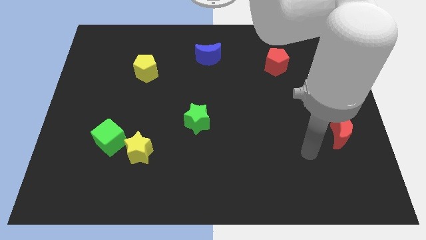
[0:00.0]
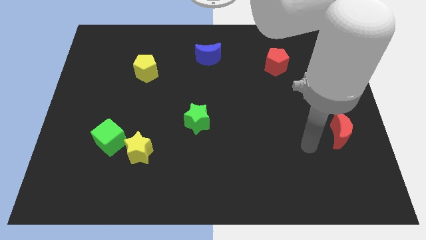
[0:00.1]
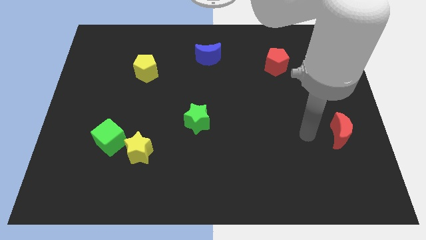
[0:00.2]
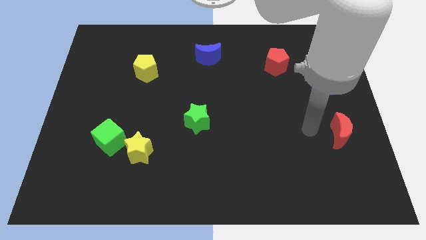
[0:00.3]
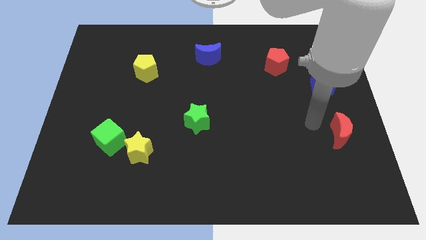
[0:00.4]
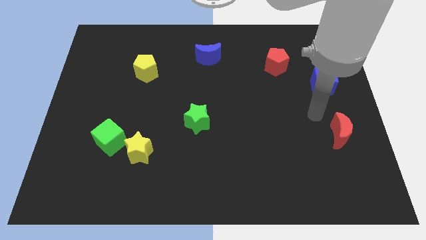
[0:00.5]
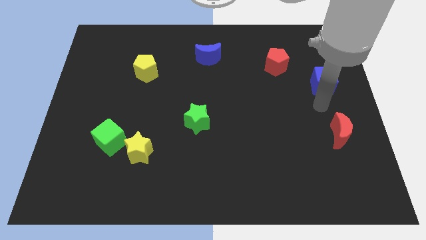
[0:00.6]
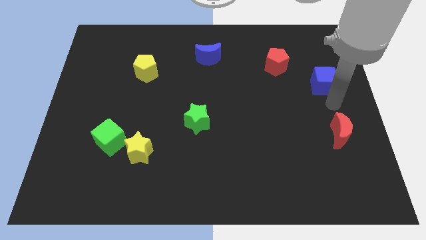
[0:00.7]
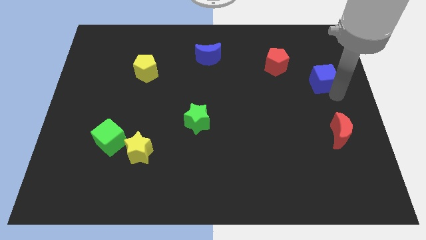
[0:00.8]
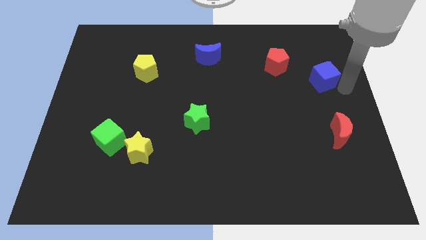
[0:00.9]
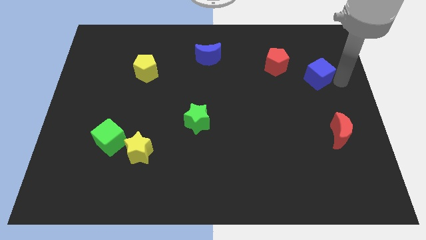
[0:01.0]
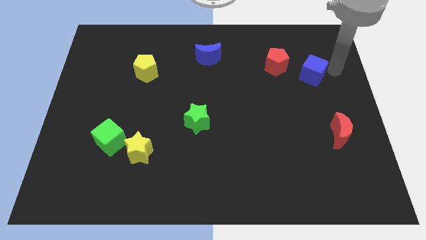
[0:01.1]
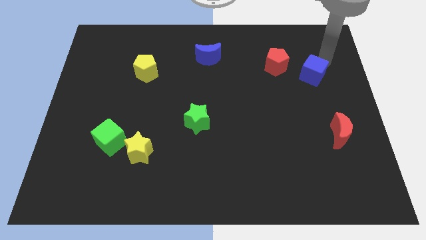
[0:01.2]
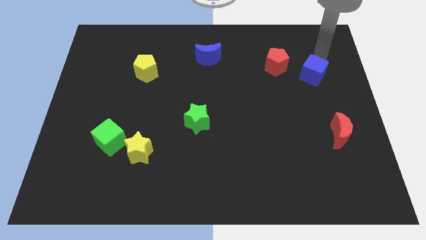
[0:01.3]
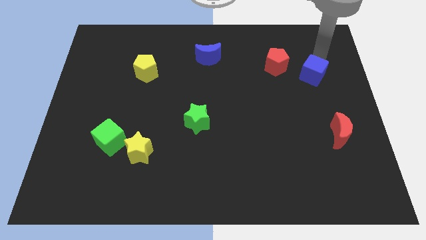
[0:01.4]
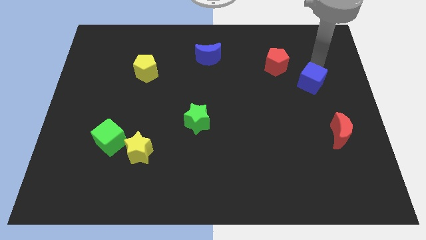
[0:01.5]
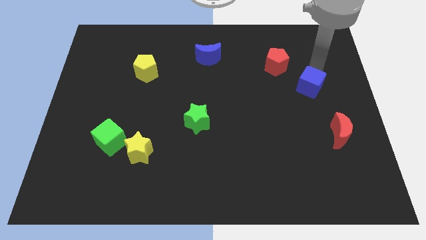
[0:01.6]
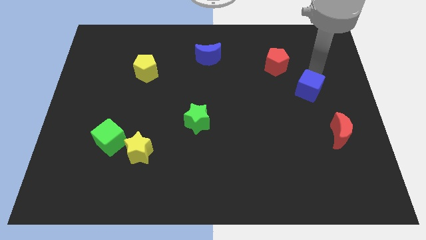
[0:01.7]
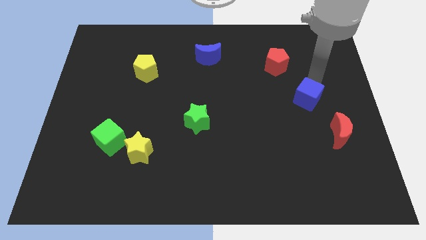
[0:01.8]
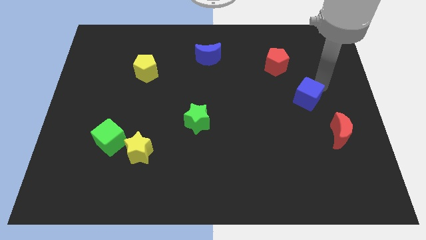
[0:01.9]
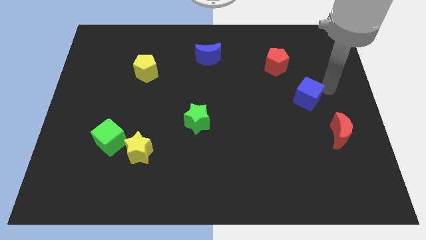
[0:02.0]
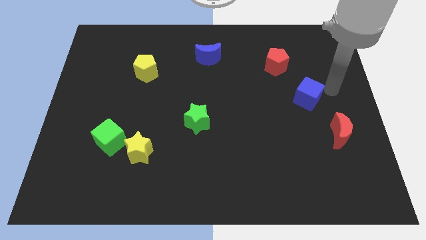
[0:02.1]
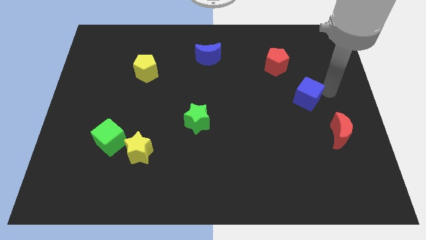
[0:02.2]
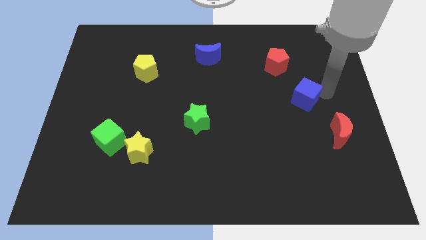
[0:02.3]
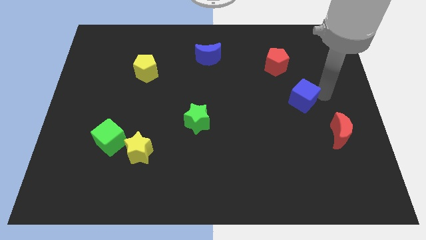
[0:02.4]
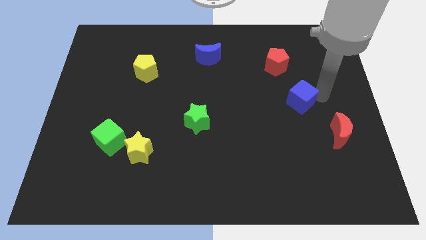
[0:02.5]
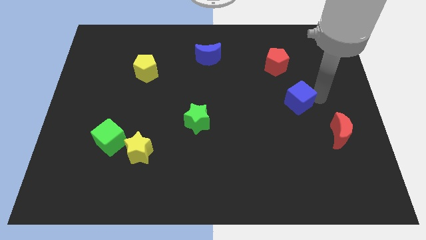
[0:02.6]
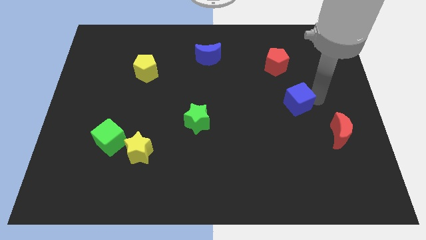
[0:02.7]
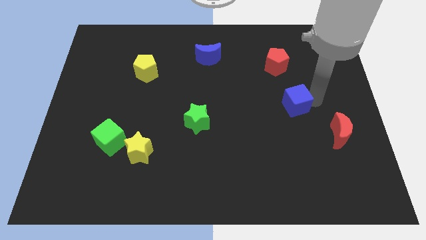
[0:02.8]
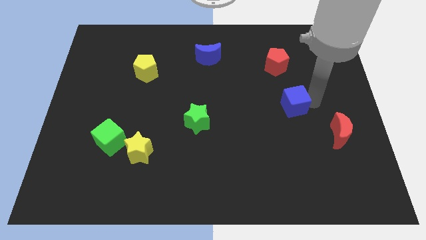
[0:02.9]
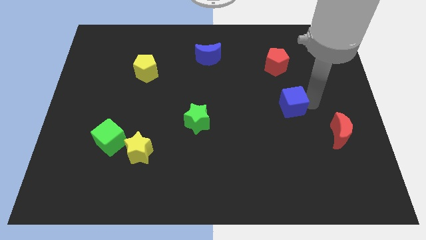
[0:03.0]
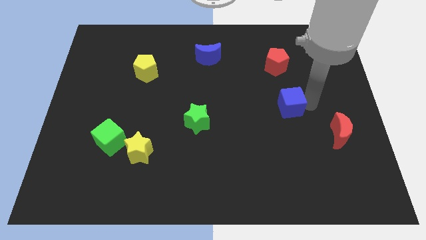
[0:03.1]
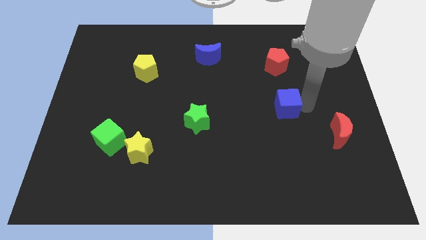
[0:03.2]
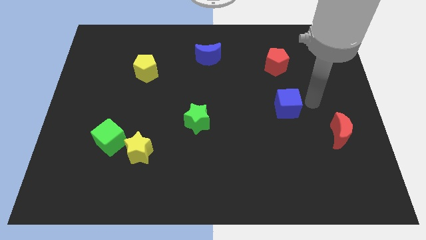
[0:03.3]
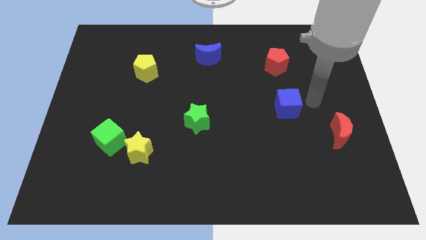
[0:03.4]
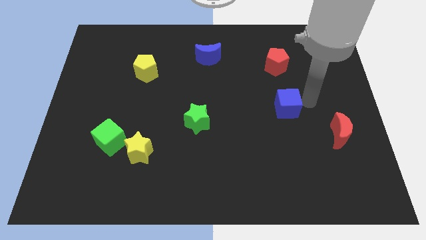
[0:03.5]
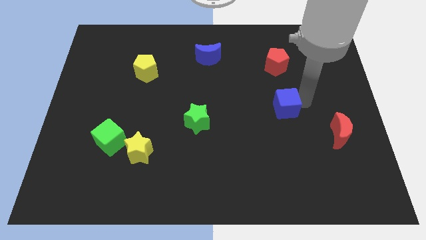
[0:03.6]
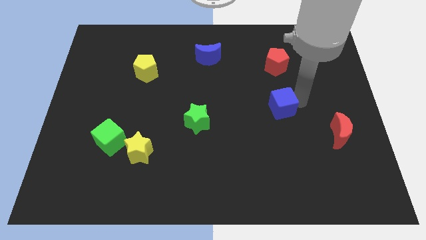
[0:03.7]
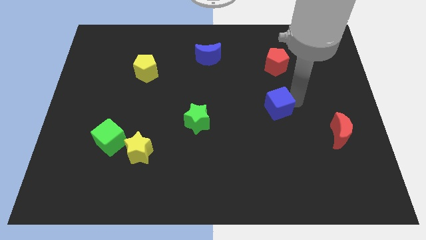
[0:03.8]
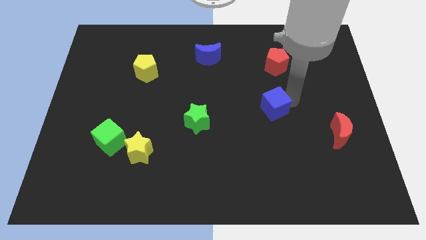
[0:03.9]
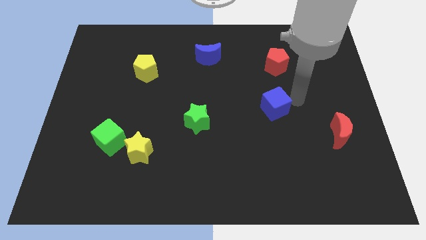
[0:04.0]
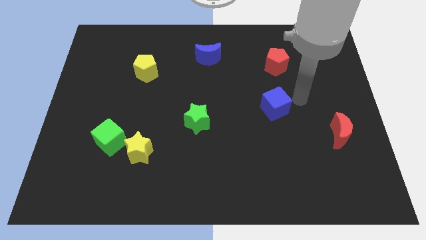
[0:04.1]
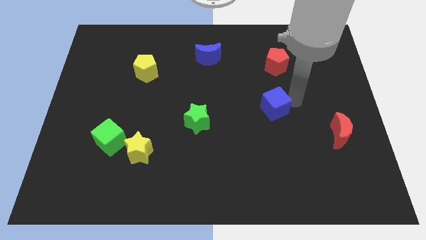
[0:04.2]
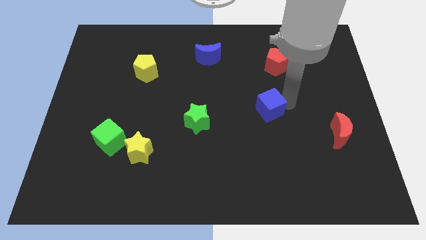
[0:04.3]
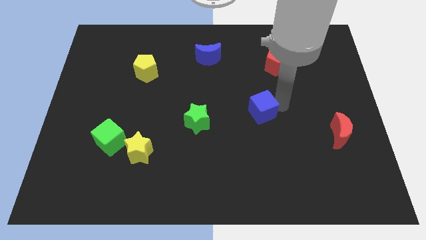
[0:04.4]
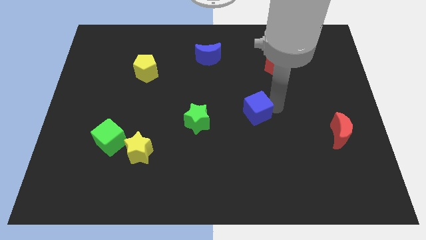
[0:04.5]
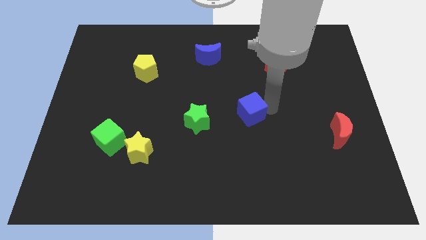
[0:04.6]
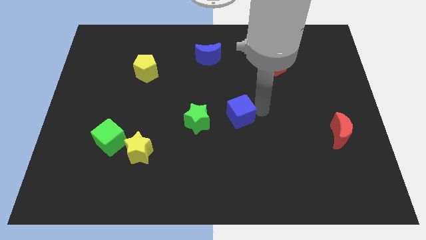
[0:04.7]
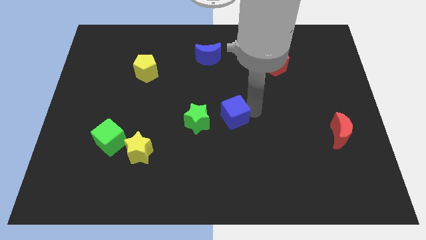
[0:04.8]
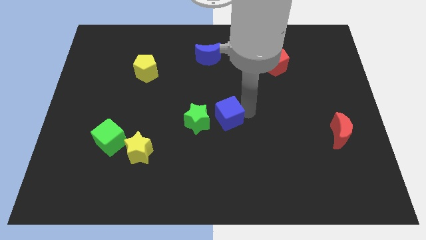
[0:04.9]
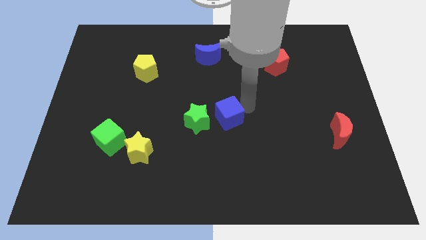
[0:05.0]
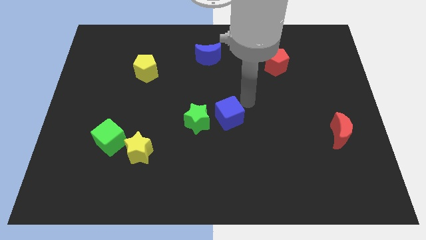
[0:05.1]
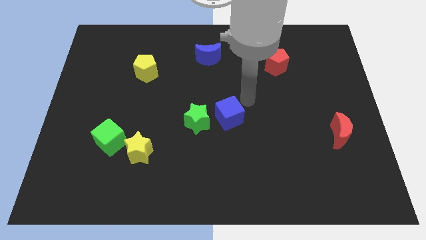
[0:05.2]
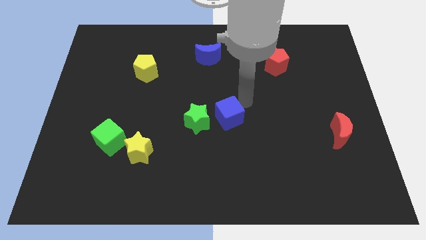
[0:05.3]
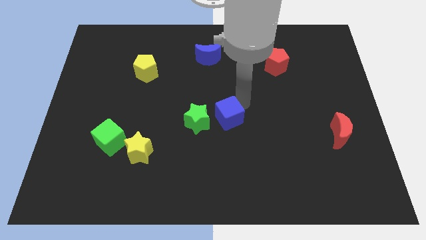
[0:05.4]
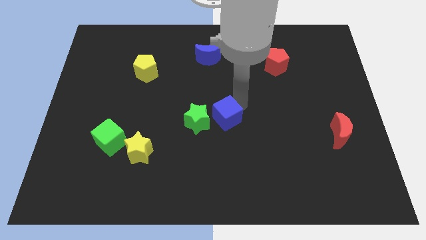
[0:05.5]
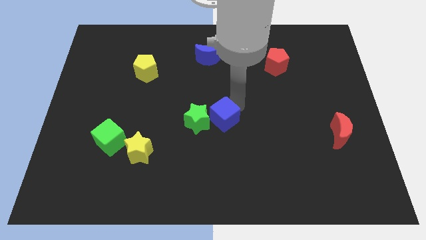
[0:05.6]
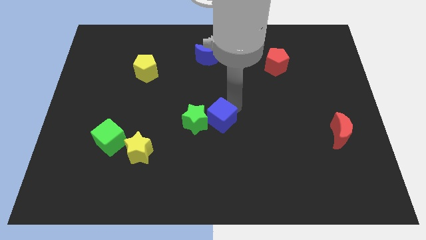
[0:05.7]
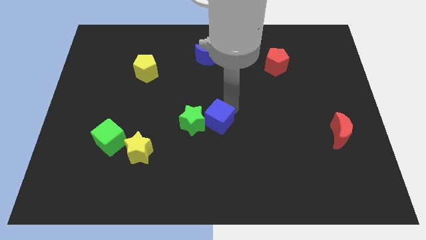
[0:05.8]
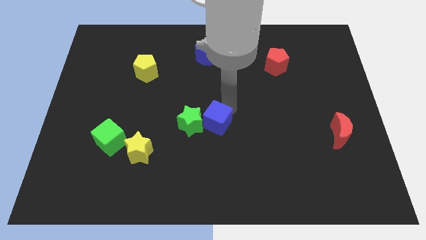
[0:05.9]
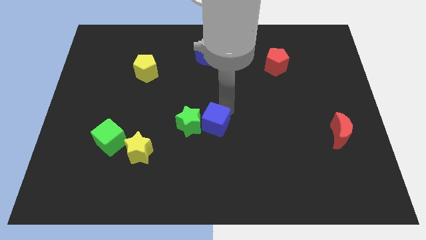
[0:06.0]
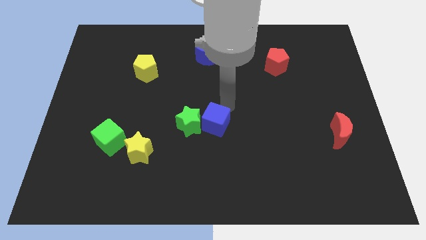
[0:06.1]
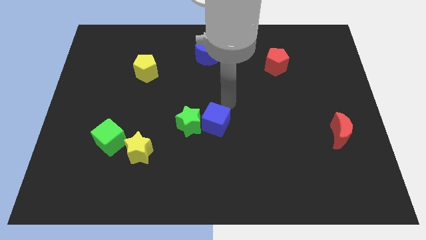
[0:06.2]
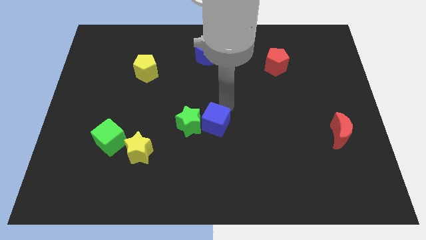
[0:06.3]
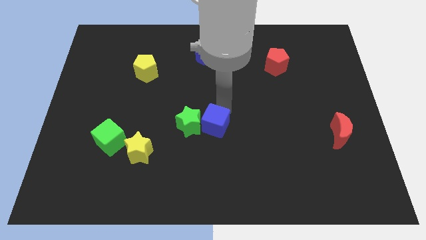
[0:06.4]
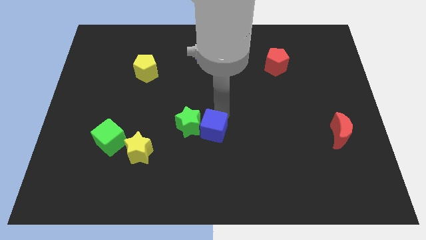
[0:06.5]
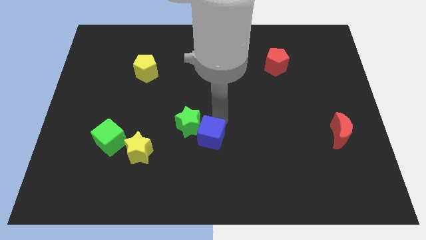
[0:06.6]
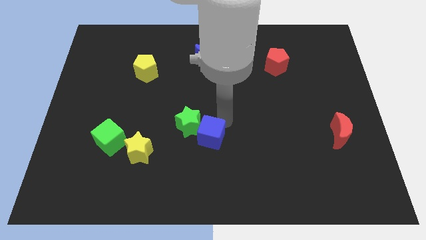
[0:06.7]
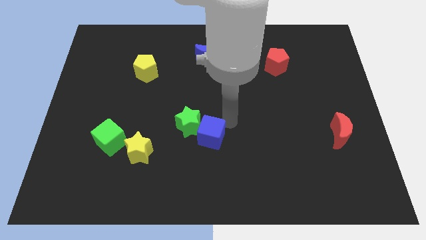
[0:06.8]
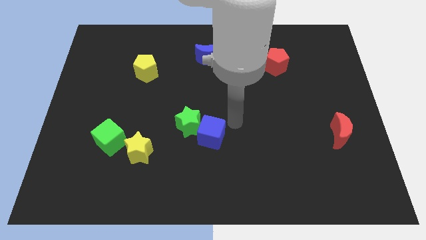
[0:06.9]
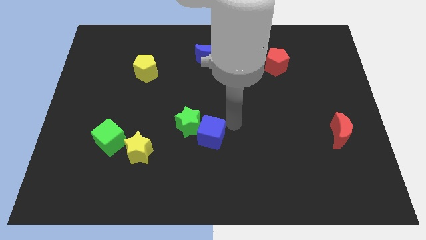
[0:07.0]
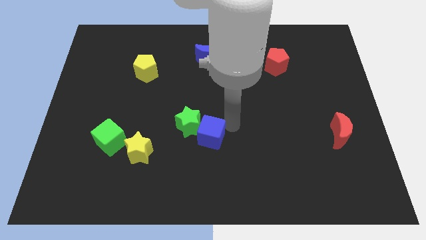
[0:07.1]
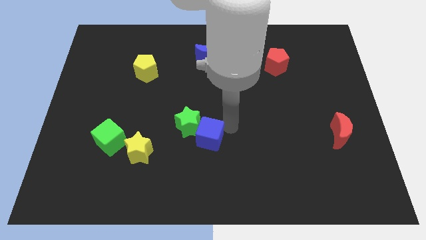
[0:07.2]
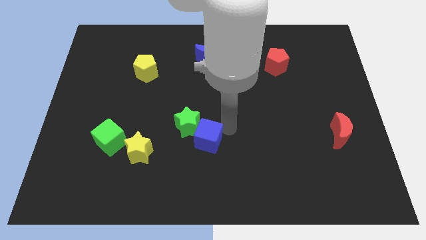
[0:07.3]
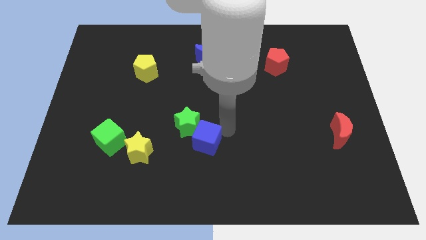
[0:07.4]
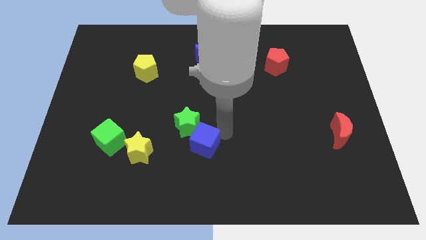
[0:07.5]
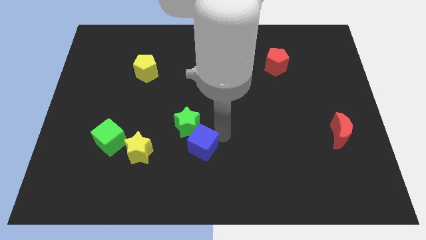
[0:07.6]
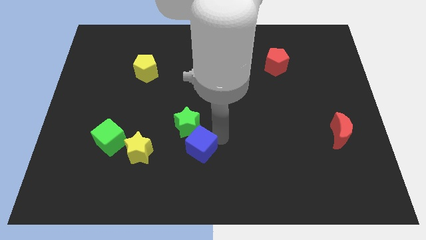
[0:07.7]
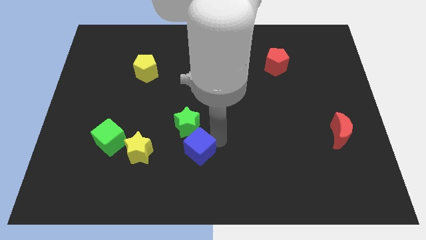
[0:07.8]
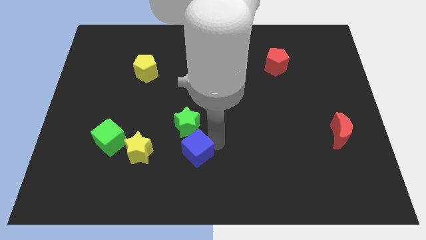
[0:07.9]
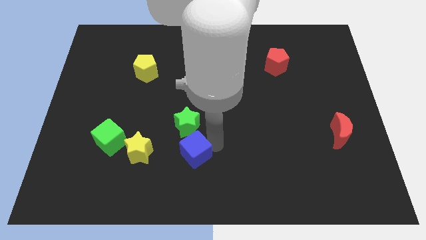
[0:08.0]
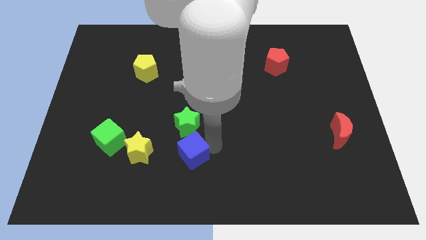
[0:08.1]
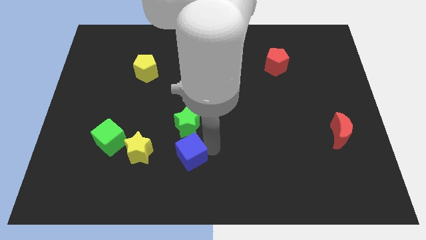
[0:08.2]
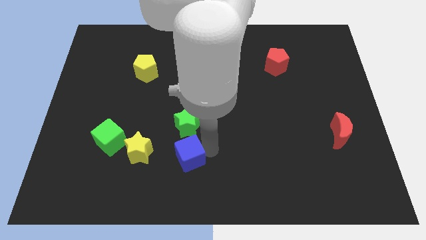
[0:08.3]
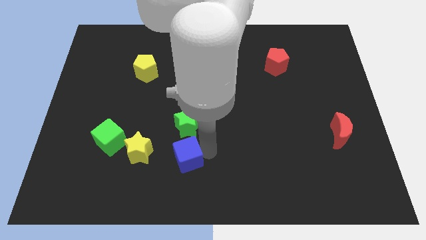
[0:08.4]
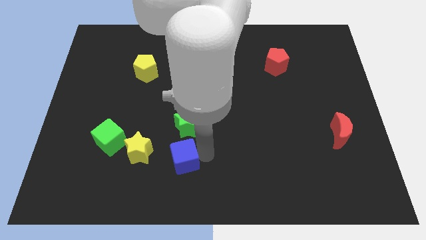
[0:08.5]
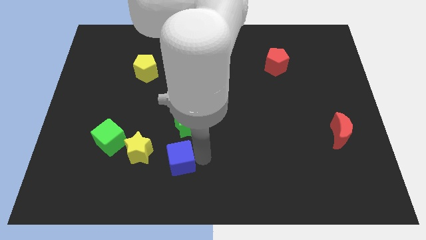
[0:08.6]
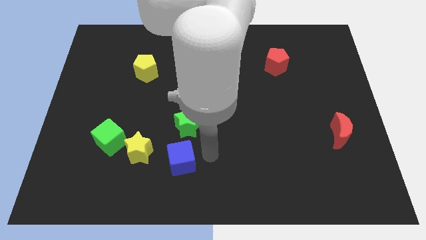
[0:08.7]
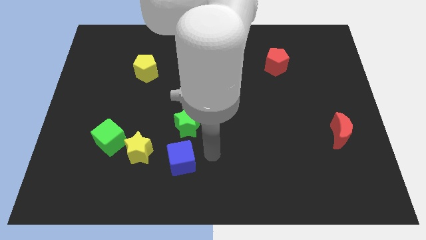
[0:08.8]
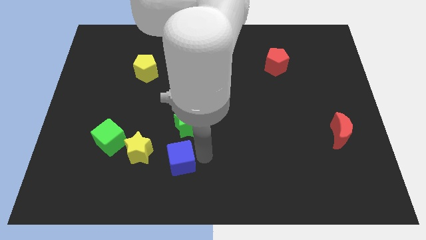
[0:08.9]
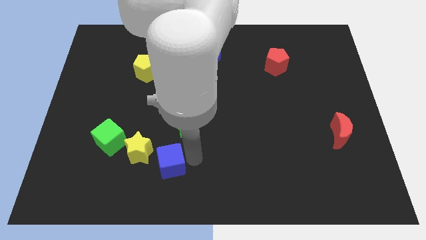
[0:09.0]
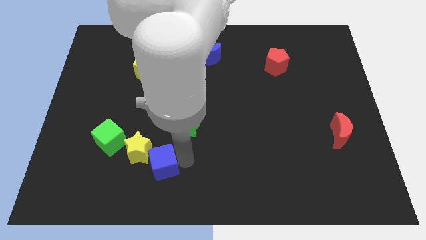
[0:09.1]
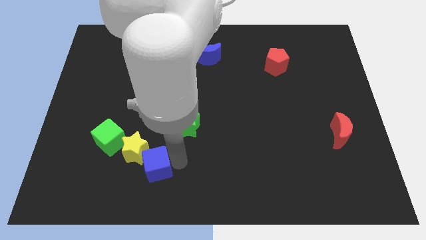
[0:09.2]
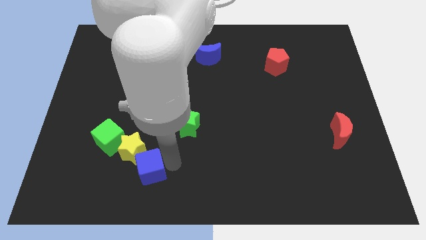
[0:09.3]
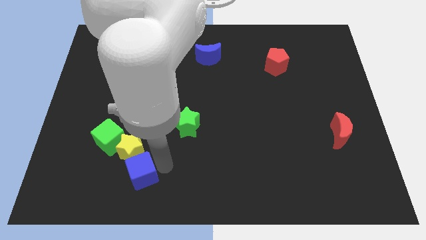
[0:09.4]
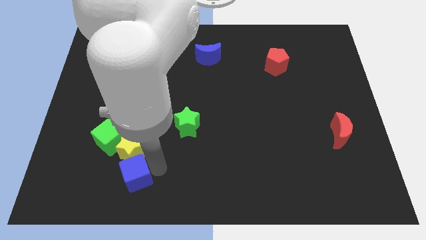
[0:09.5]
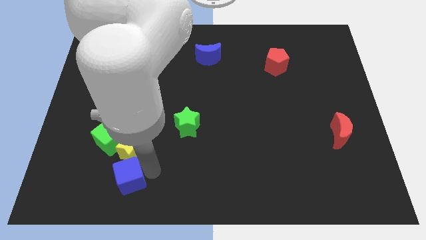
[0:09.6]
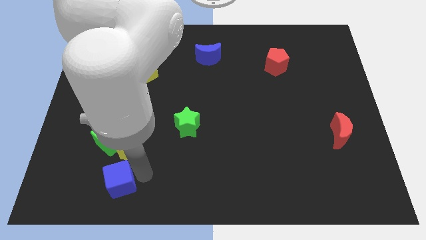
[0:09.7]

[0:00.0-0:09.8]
put the blue cube below the green cube
